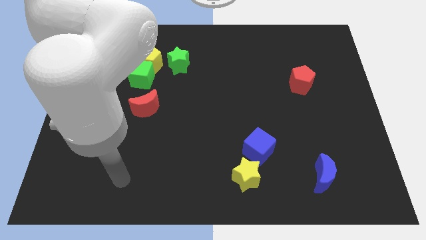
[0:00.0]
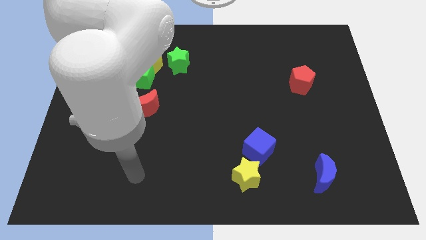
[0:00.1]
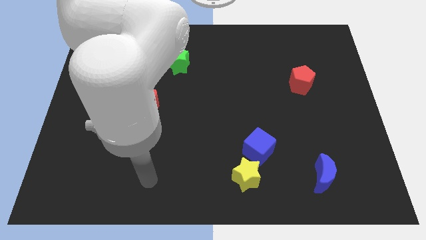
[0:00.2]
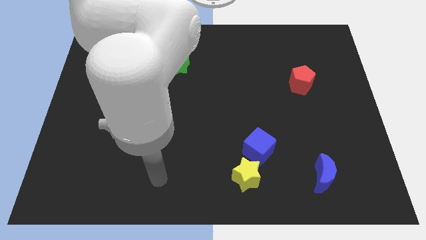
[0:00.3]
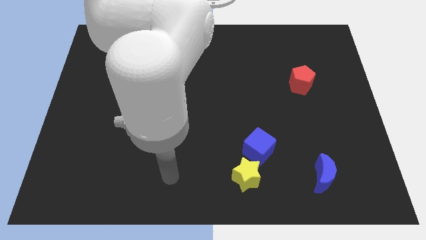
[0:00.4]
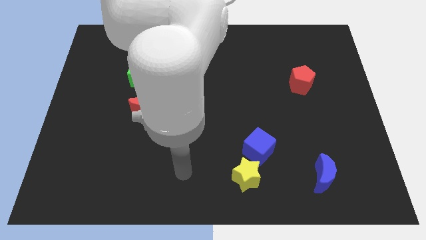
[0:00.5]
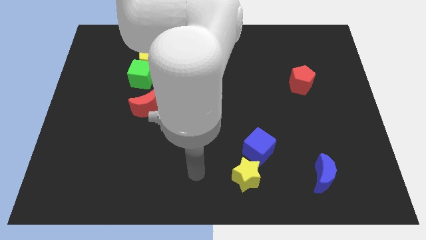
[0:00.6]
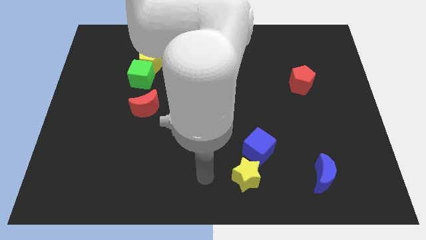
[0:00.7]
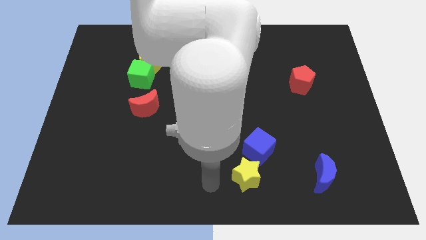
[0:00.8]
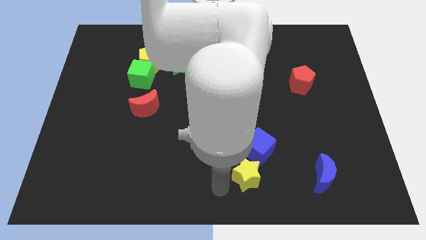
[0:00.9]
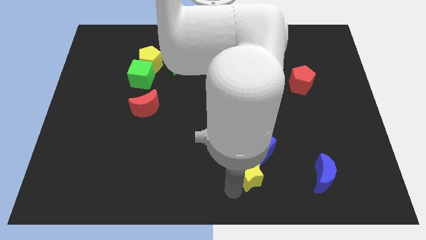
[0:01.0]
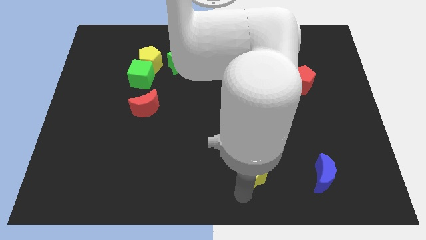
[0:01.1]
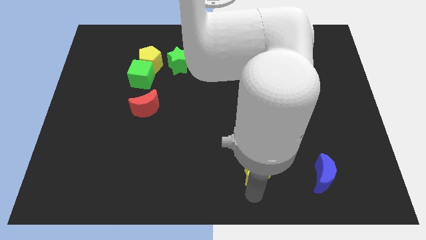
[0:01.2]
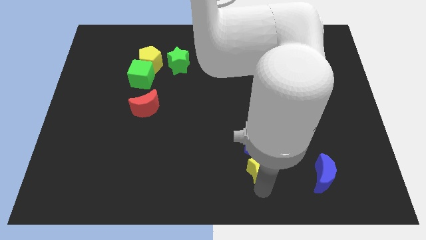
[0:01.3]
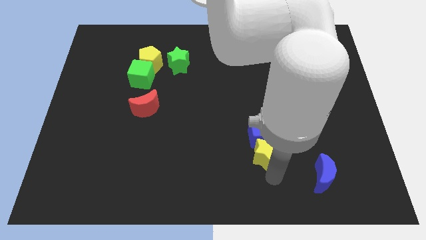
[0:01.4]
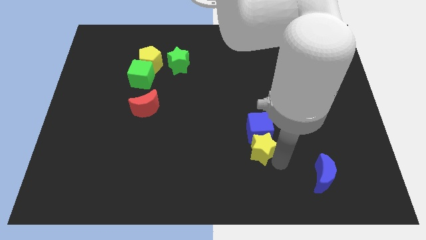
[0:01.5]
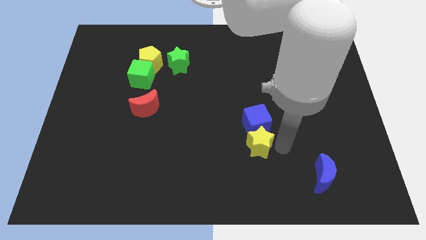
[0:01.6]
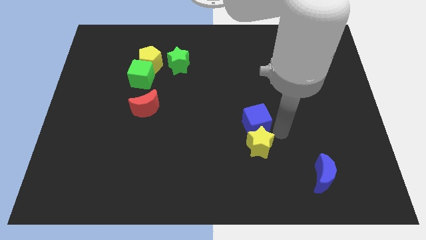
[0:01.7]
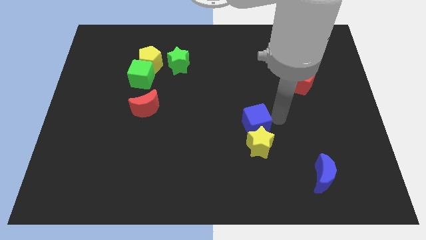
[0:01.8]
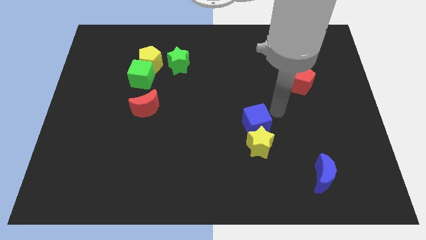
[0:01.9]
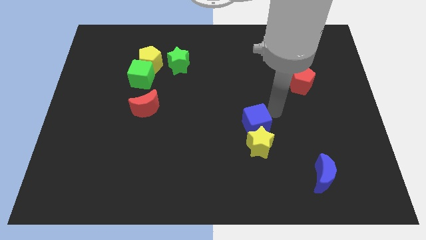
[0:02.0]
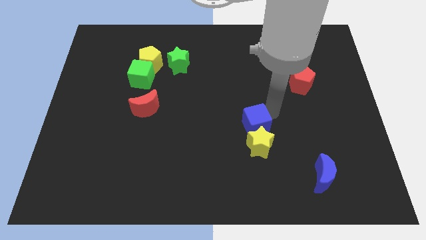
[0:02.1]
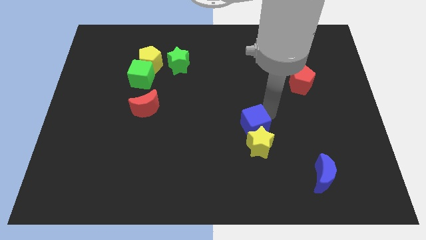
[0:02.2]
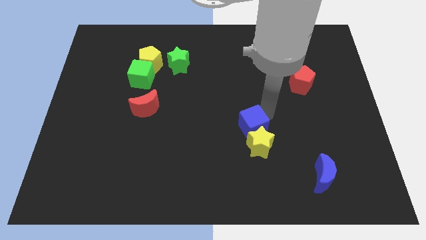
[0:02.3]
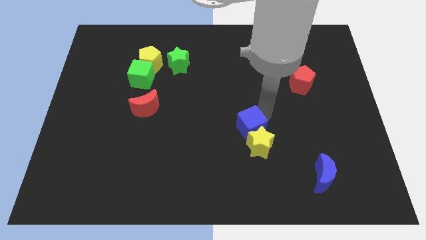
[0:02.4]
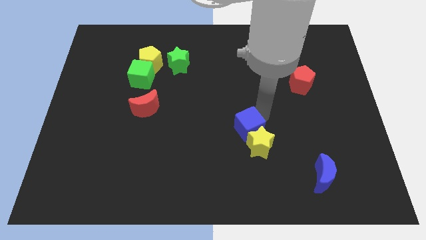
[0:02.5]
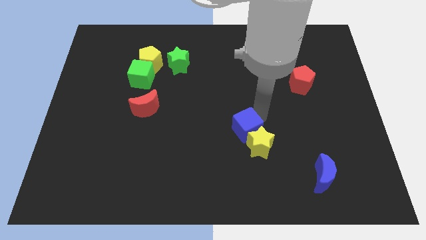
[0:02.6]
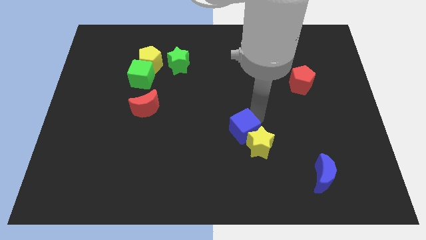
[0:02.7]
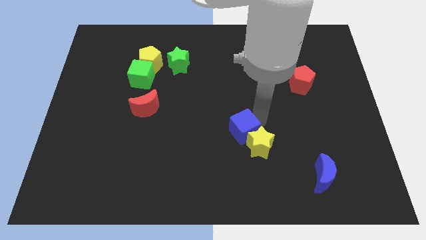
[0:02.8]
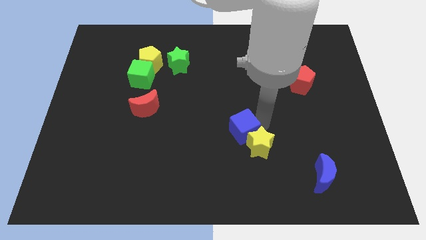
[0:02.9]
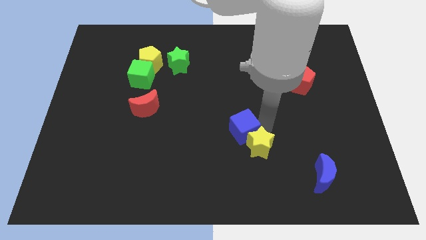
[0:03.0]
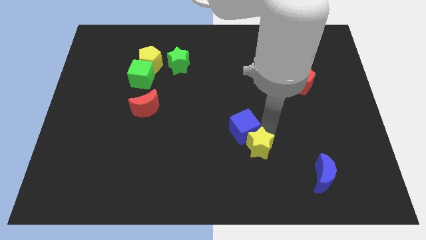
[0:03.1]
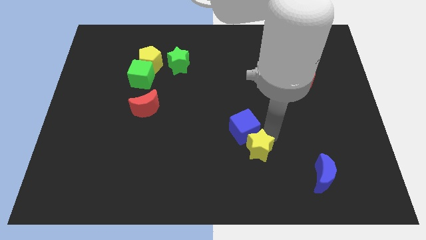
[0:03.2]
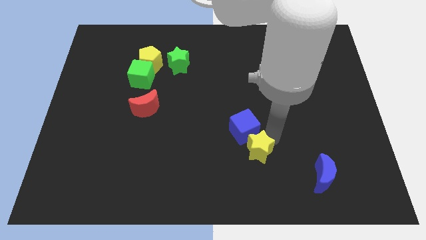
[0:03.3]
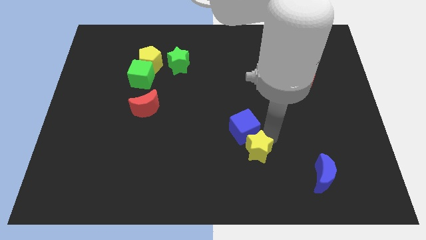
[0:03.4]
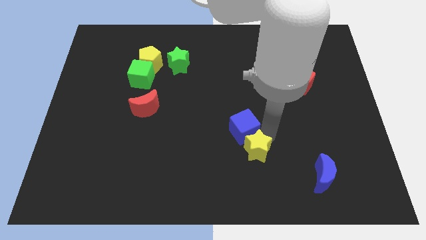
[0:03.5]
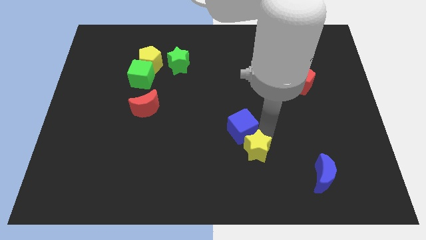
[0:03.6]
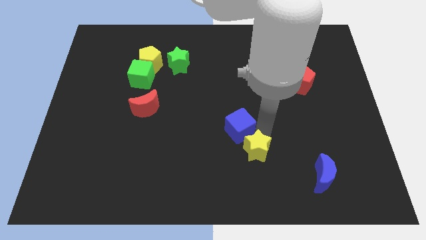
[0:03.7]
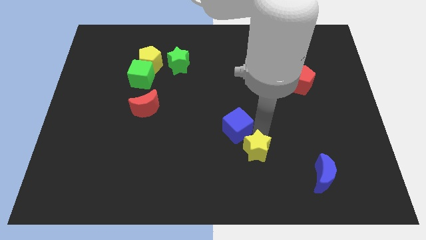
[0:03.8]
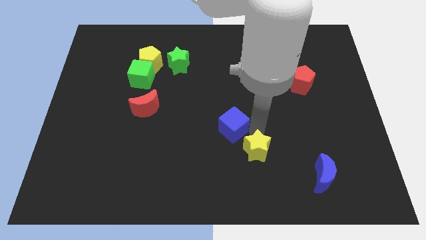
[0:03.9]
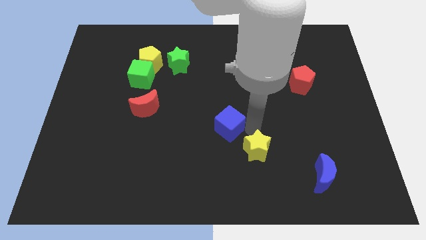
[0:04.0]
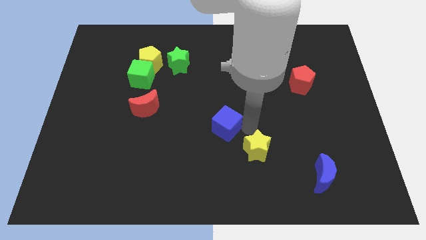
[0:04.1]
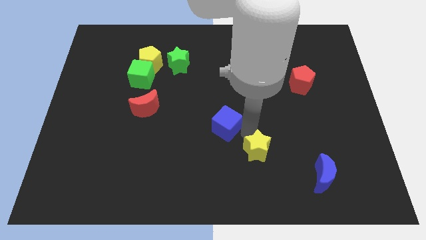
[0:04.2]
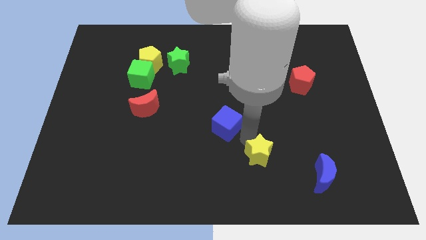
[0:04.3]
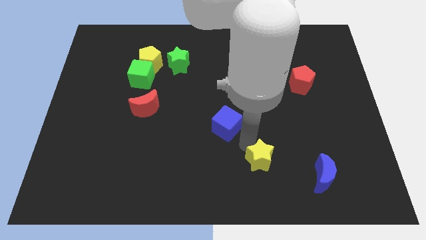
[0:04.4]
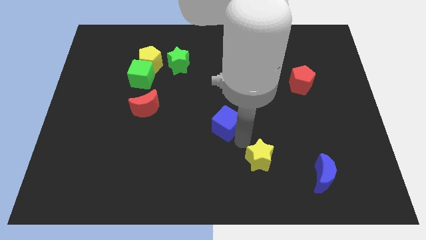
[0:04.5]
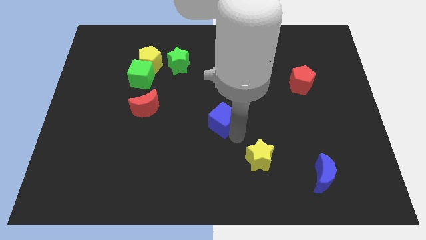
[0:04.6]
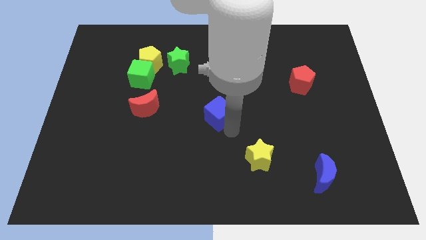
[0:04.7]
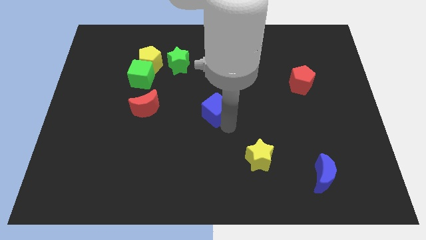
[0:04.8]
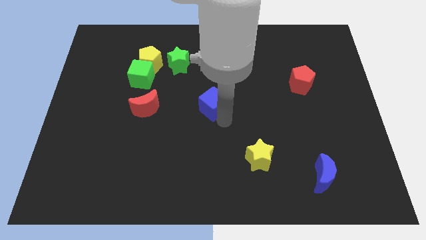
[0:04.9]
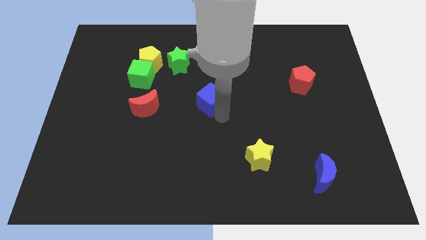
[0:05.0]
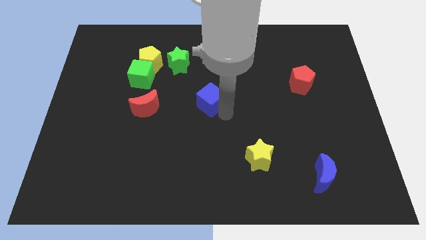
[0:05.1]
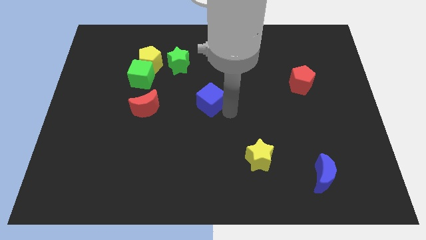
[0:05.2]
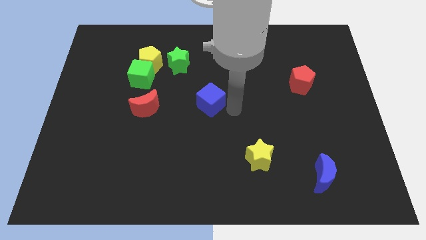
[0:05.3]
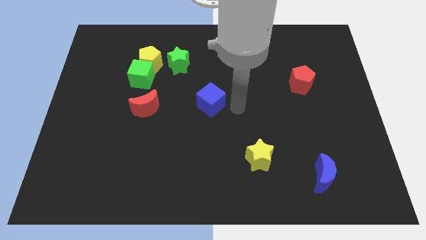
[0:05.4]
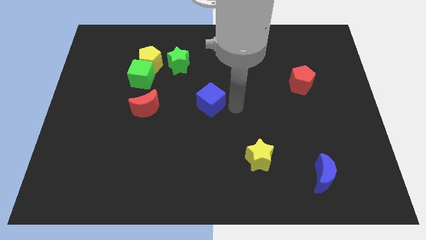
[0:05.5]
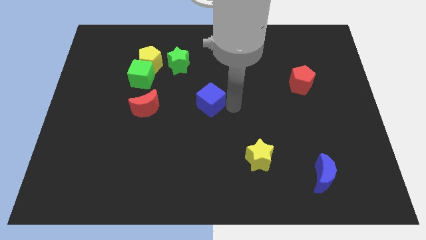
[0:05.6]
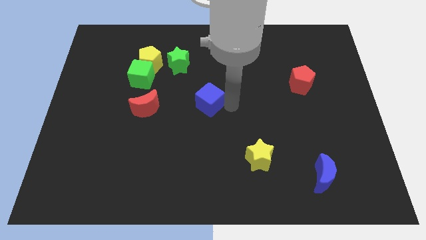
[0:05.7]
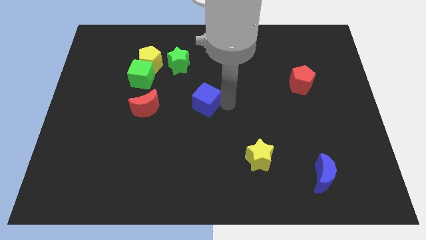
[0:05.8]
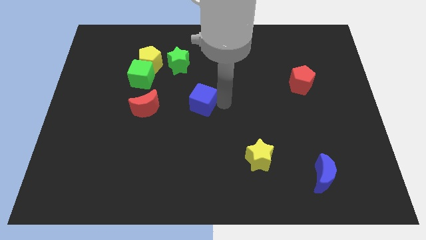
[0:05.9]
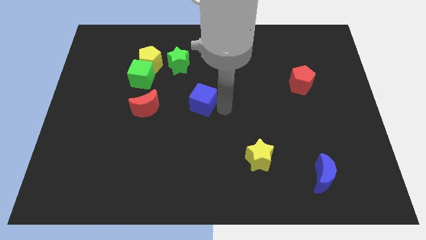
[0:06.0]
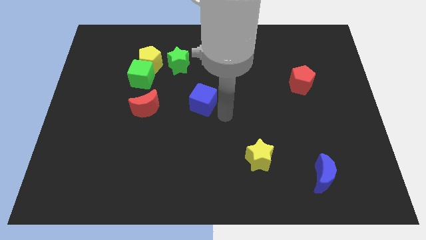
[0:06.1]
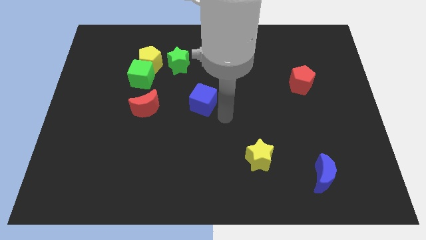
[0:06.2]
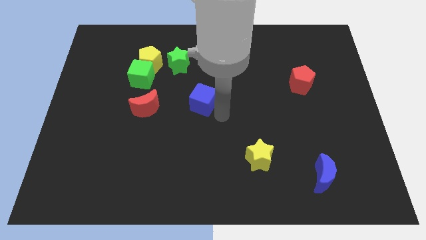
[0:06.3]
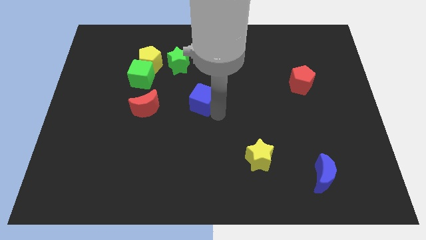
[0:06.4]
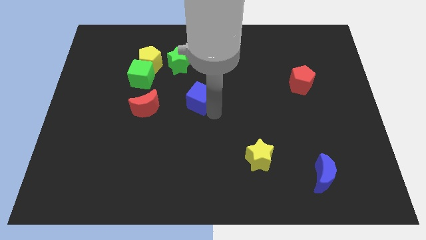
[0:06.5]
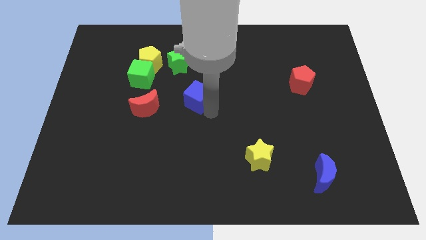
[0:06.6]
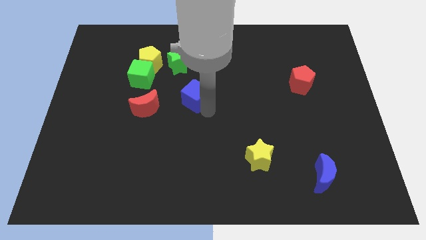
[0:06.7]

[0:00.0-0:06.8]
push the blue cube up and left
